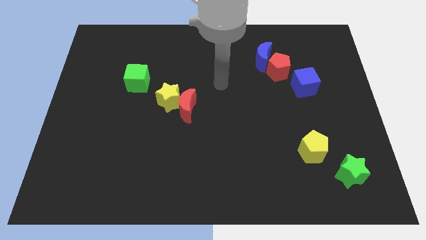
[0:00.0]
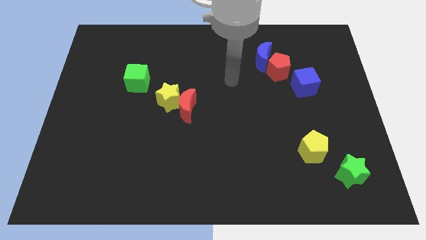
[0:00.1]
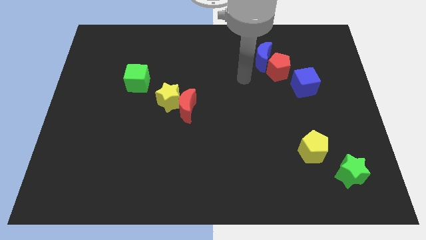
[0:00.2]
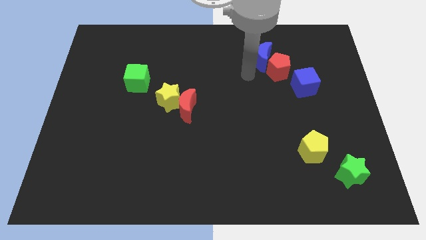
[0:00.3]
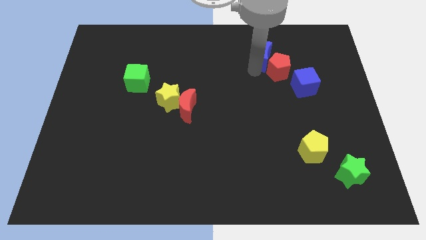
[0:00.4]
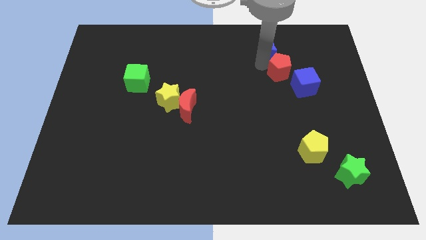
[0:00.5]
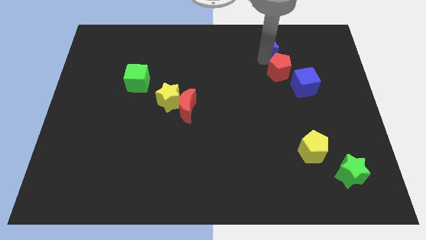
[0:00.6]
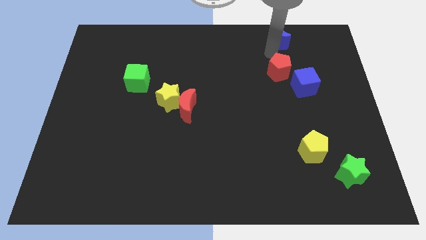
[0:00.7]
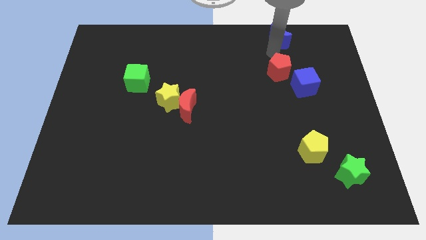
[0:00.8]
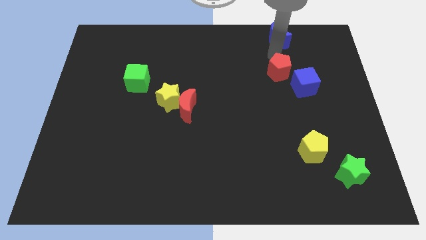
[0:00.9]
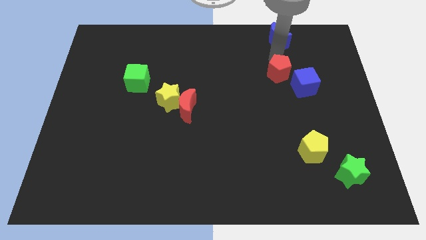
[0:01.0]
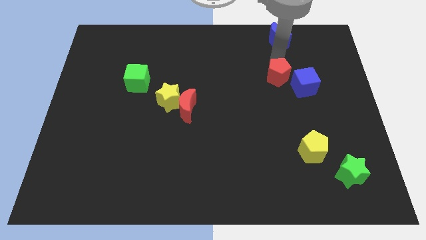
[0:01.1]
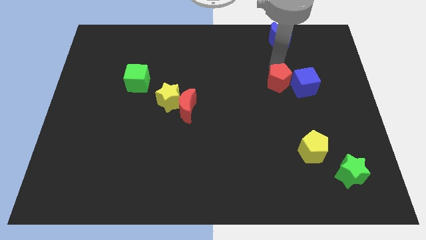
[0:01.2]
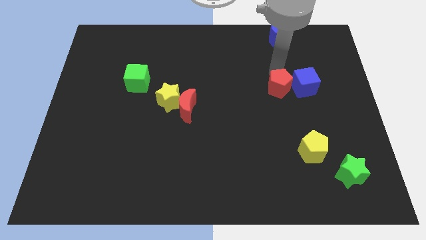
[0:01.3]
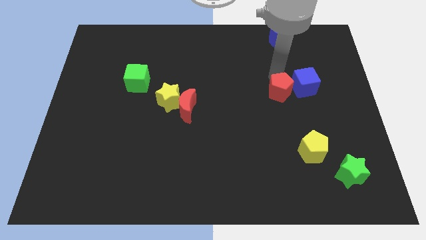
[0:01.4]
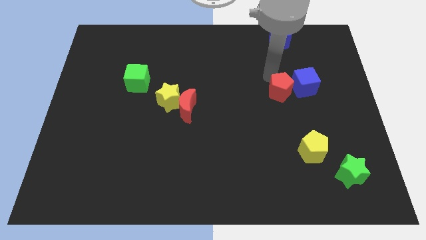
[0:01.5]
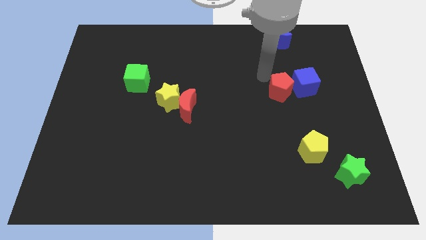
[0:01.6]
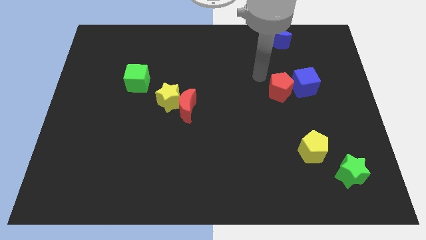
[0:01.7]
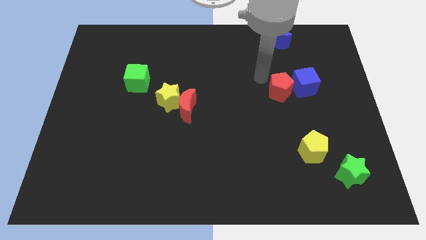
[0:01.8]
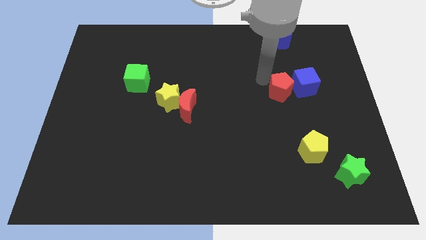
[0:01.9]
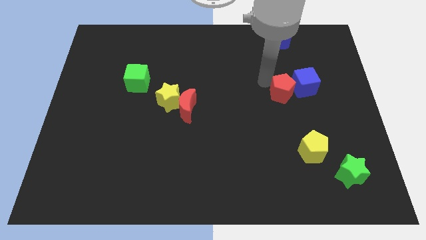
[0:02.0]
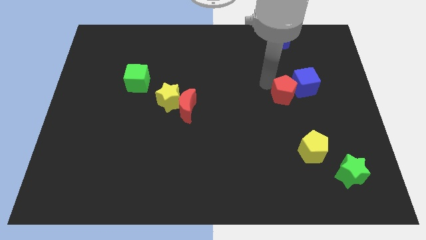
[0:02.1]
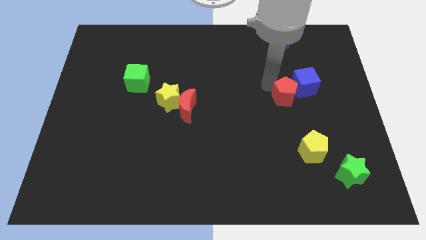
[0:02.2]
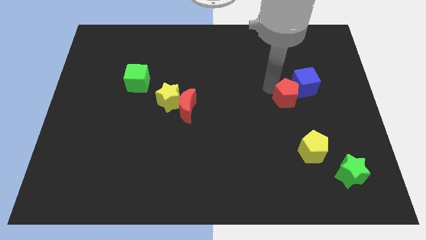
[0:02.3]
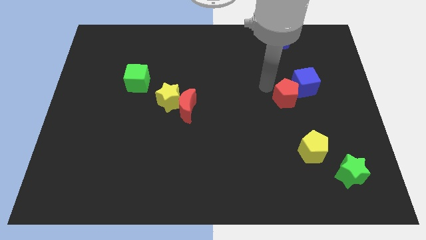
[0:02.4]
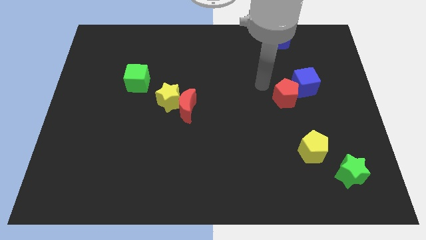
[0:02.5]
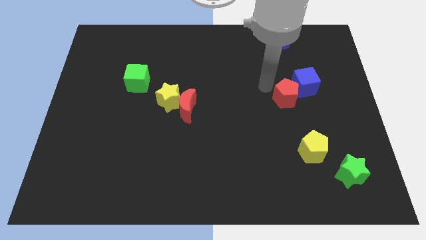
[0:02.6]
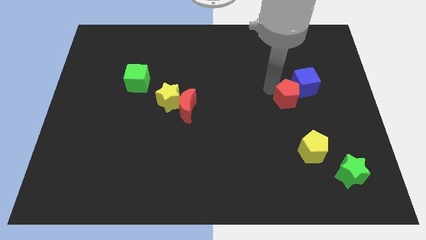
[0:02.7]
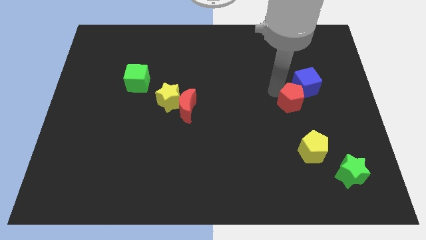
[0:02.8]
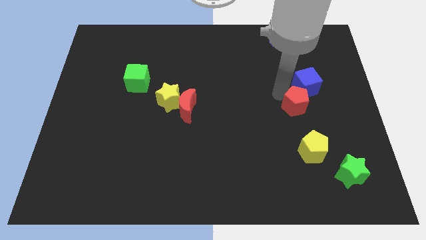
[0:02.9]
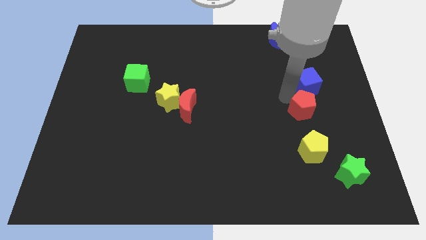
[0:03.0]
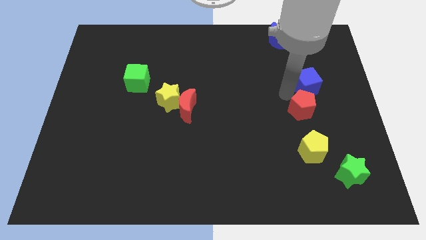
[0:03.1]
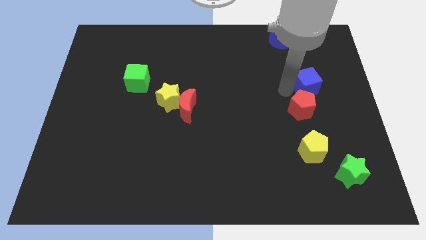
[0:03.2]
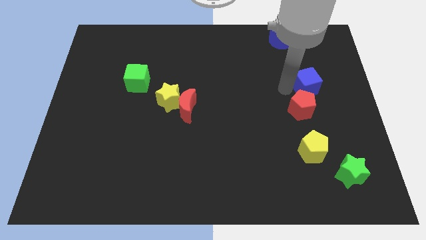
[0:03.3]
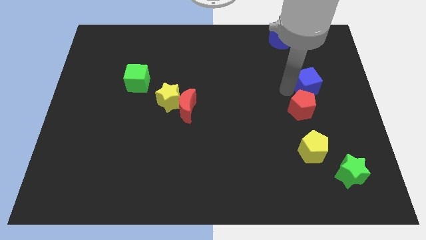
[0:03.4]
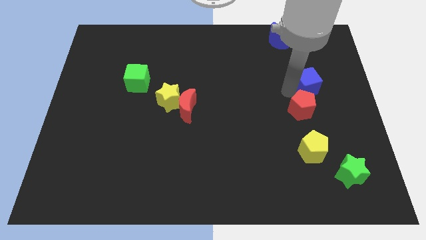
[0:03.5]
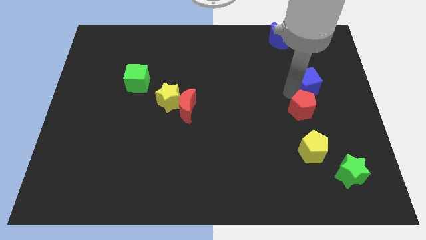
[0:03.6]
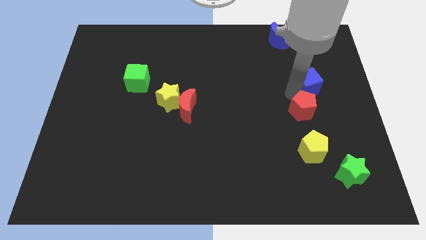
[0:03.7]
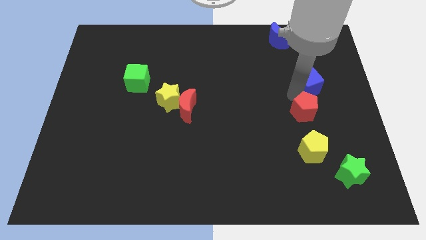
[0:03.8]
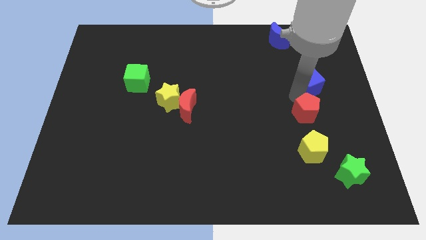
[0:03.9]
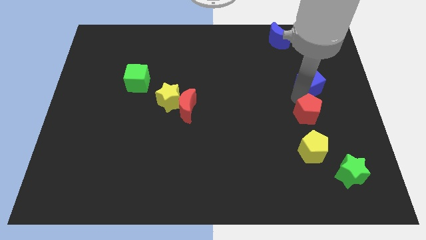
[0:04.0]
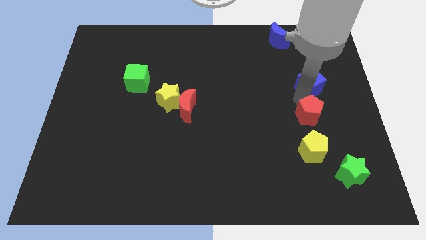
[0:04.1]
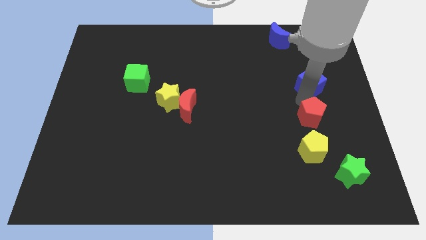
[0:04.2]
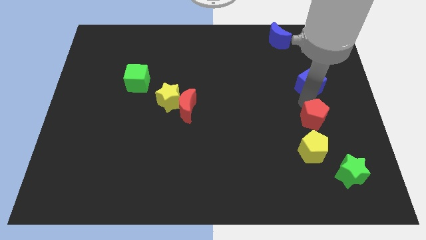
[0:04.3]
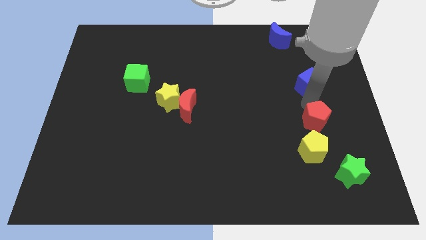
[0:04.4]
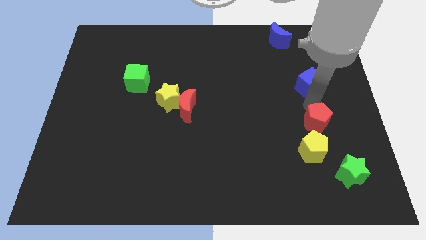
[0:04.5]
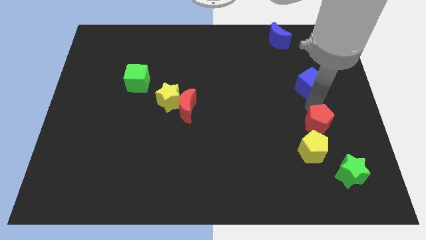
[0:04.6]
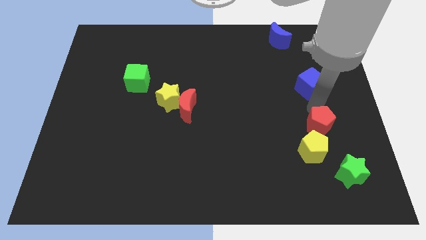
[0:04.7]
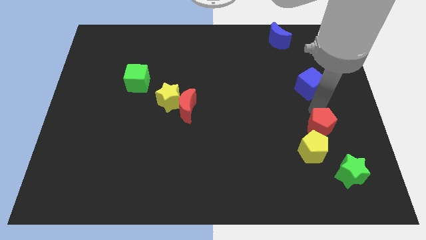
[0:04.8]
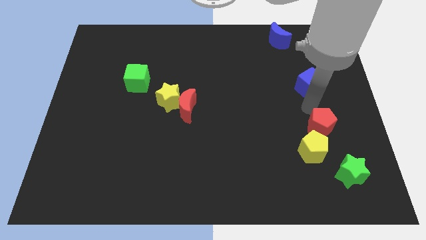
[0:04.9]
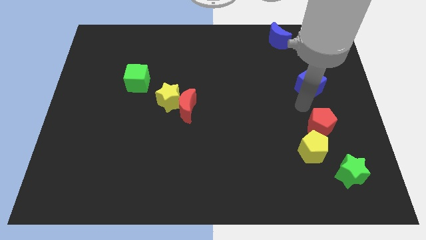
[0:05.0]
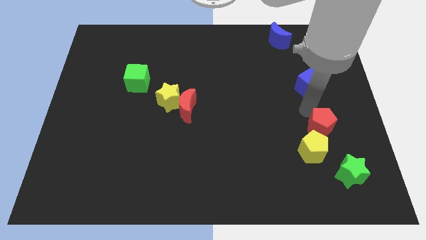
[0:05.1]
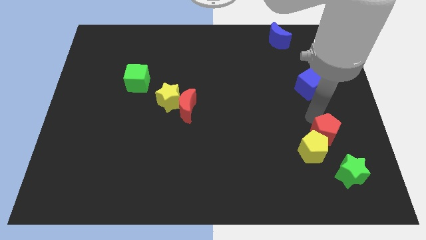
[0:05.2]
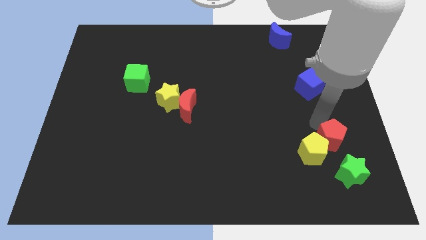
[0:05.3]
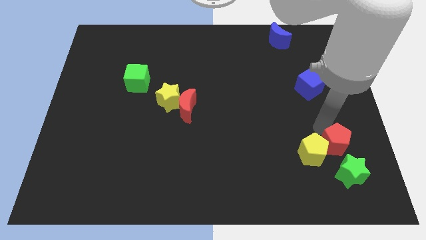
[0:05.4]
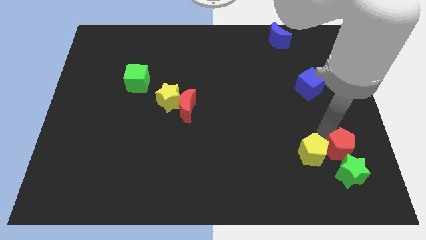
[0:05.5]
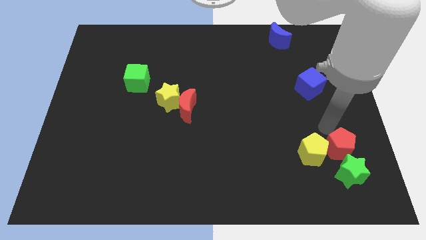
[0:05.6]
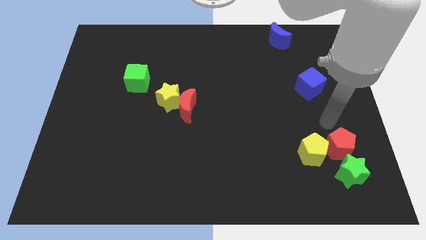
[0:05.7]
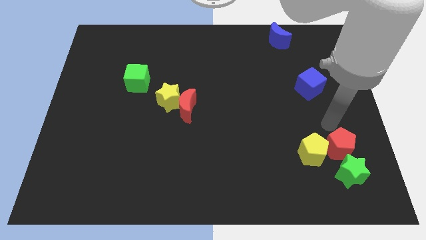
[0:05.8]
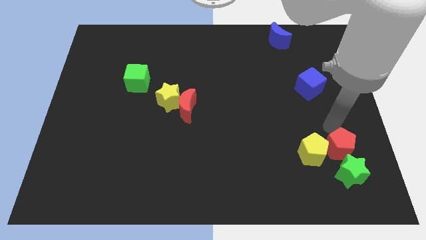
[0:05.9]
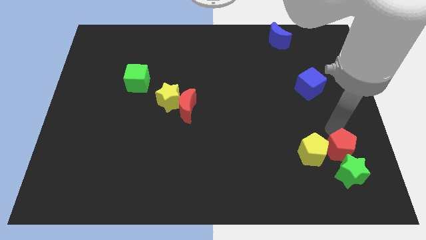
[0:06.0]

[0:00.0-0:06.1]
slide the red pentagon to the green star

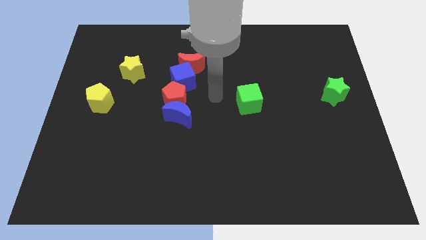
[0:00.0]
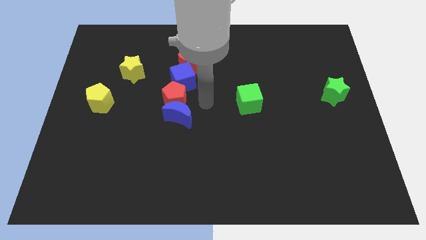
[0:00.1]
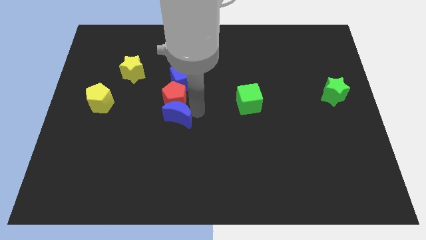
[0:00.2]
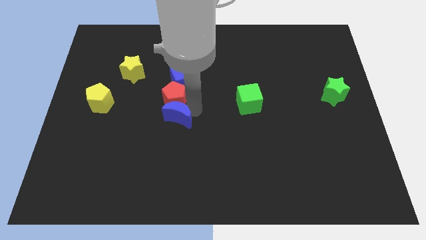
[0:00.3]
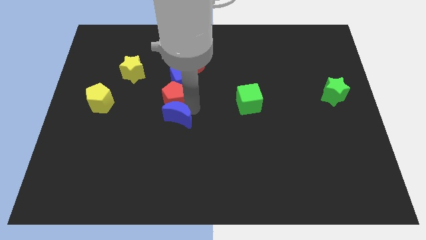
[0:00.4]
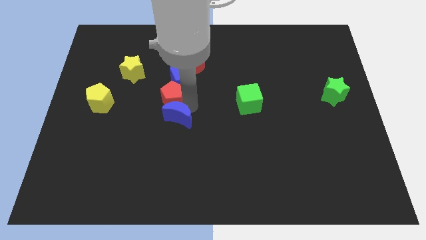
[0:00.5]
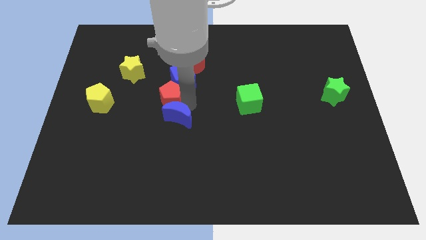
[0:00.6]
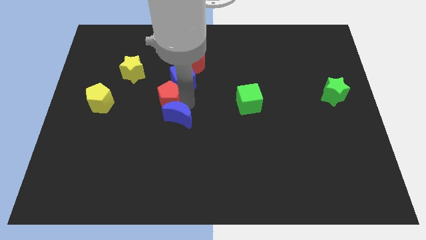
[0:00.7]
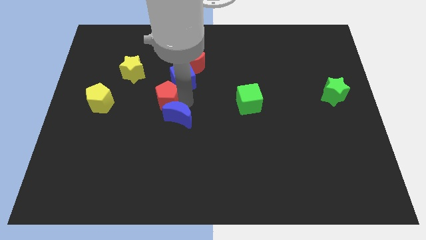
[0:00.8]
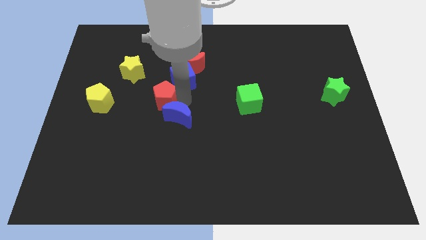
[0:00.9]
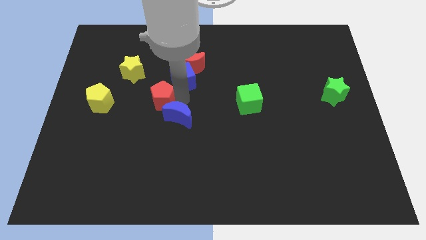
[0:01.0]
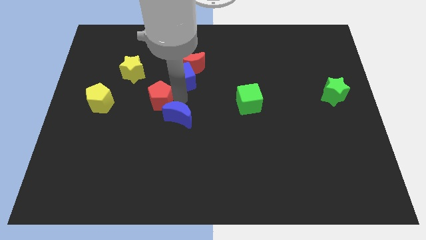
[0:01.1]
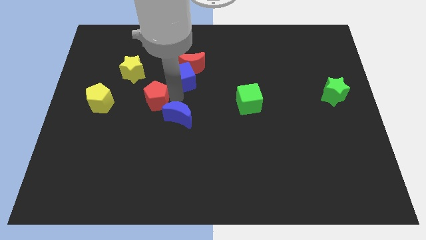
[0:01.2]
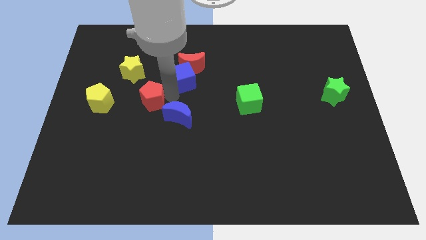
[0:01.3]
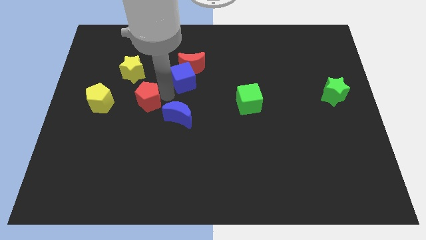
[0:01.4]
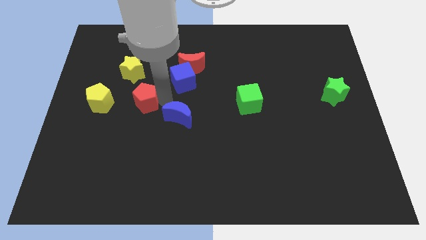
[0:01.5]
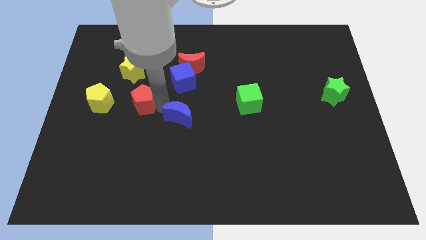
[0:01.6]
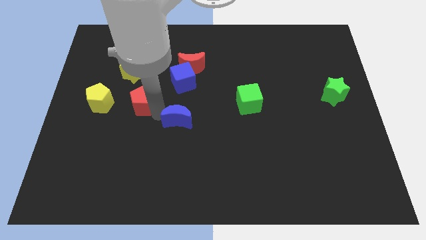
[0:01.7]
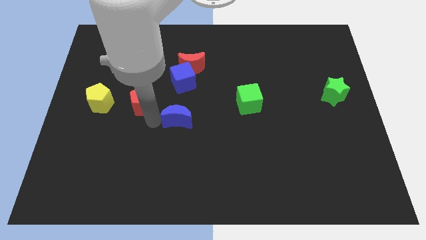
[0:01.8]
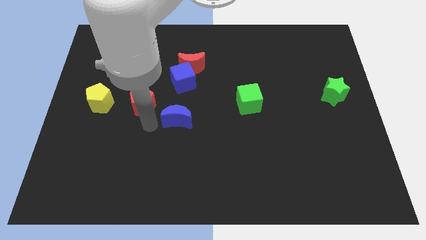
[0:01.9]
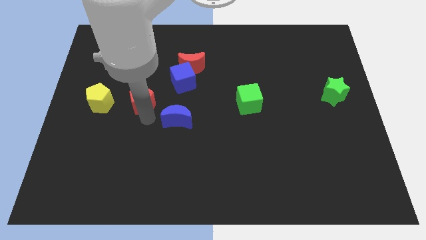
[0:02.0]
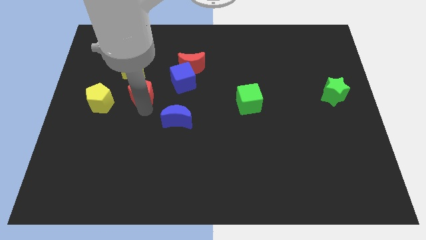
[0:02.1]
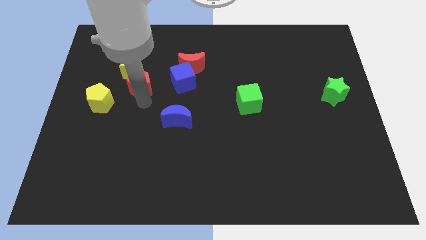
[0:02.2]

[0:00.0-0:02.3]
put the red pentagon close to the yellow star
